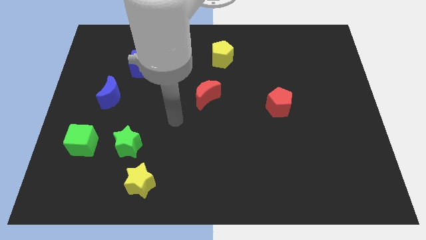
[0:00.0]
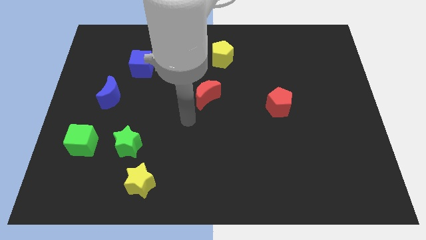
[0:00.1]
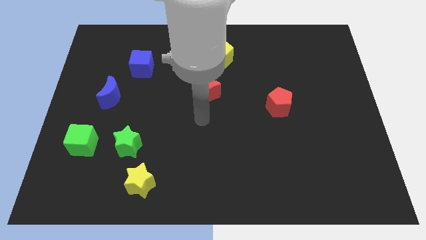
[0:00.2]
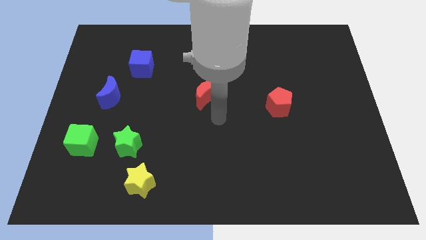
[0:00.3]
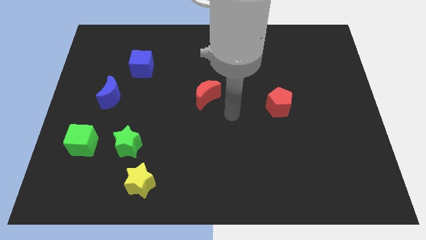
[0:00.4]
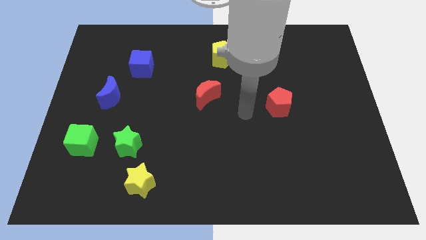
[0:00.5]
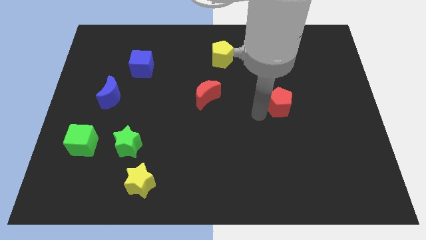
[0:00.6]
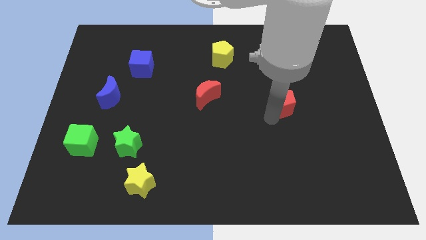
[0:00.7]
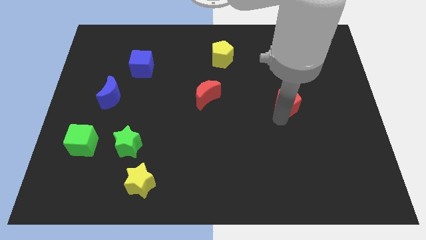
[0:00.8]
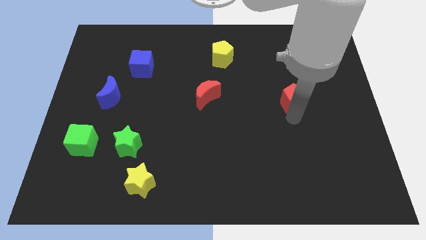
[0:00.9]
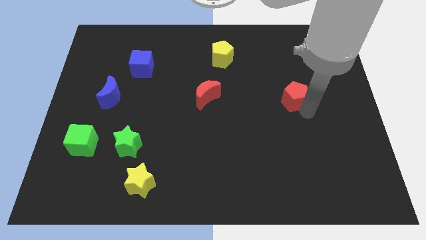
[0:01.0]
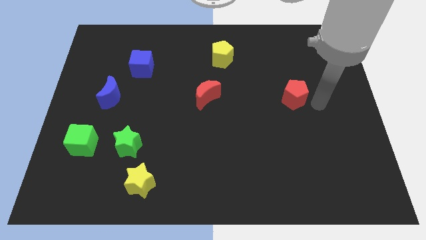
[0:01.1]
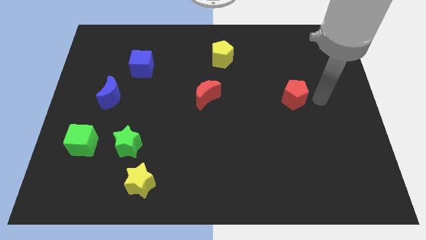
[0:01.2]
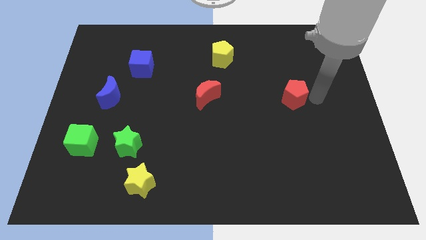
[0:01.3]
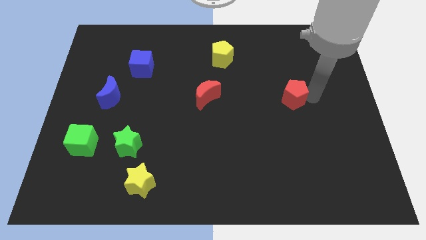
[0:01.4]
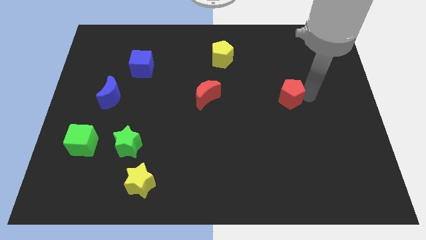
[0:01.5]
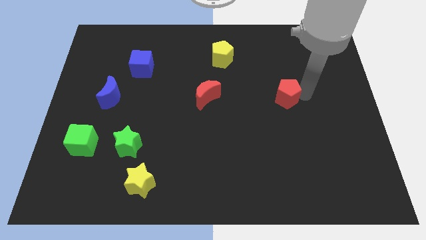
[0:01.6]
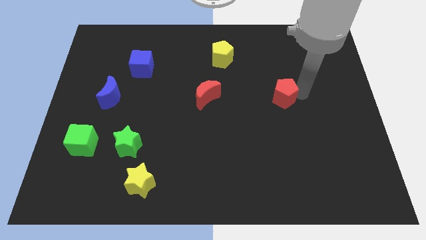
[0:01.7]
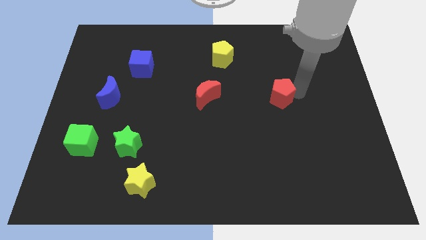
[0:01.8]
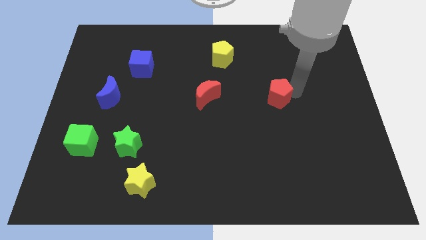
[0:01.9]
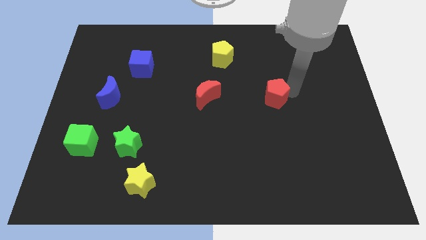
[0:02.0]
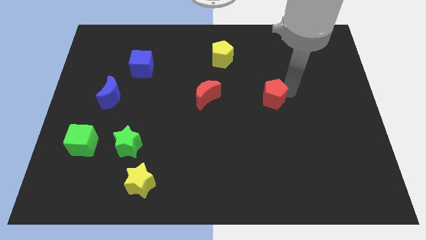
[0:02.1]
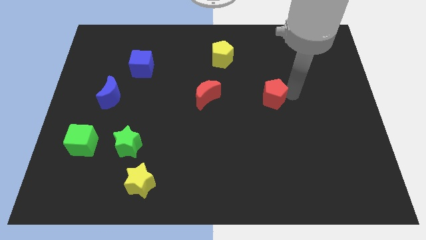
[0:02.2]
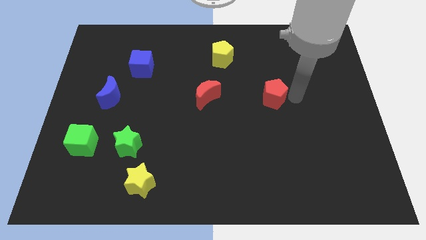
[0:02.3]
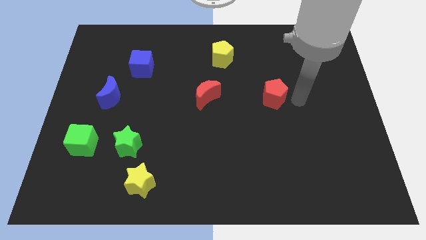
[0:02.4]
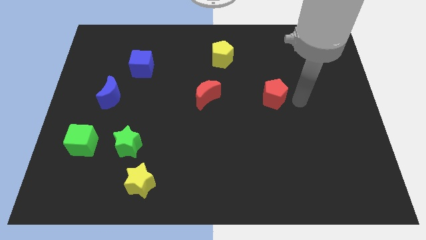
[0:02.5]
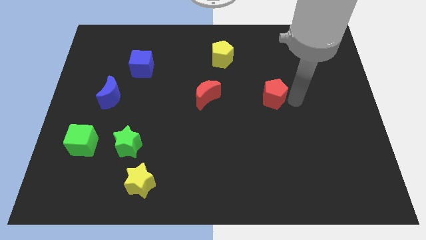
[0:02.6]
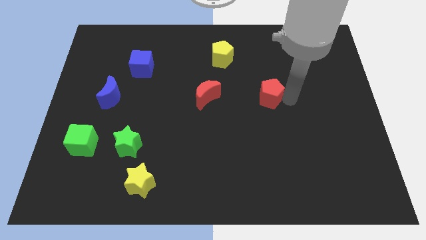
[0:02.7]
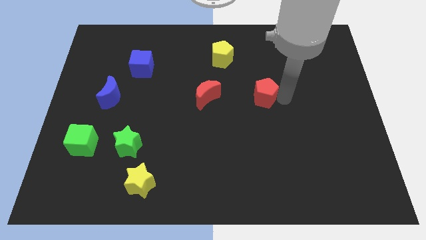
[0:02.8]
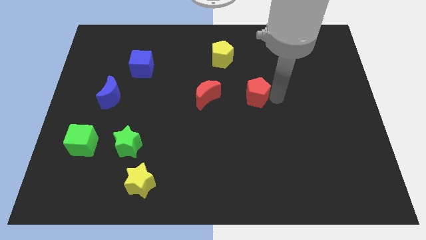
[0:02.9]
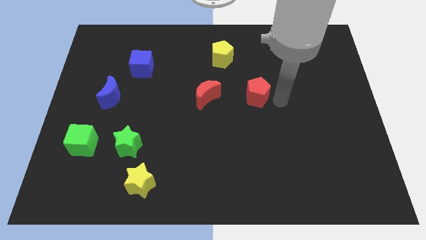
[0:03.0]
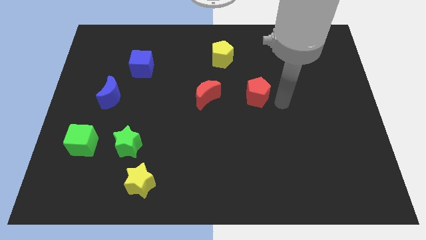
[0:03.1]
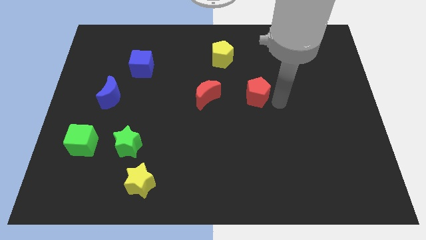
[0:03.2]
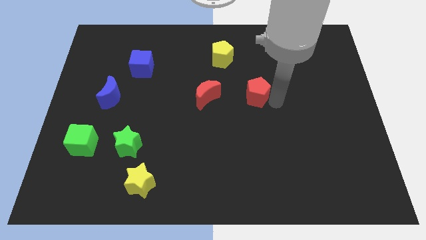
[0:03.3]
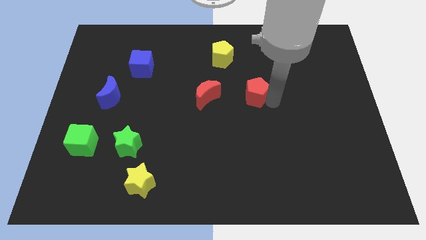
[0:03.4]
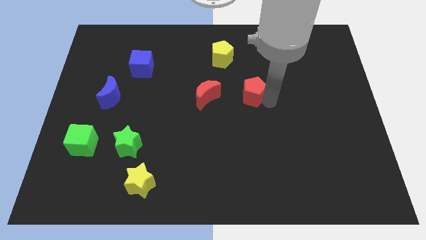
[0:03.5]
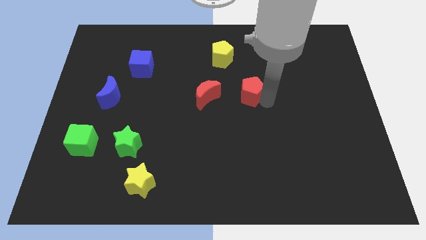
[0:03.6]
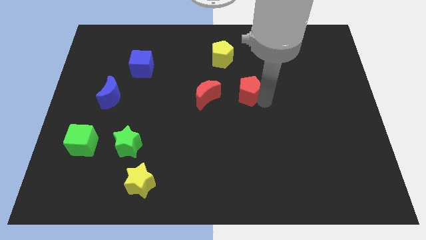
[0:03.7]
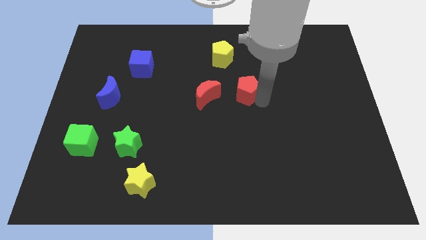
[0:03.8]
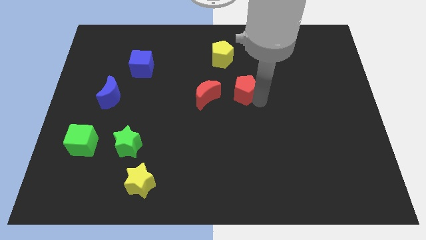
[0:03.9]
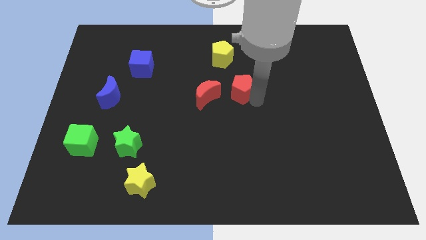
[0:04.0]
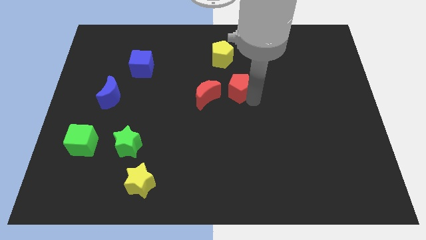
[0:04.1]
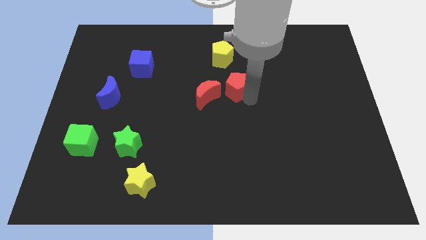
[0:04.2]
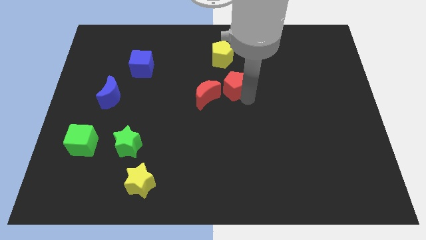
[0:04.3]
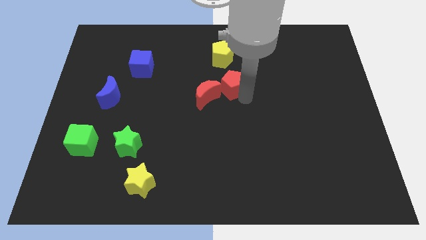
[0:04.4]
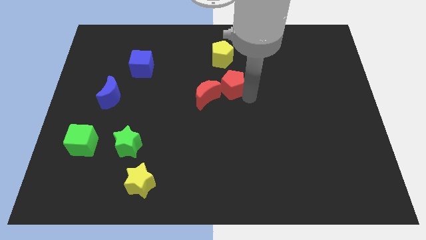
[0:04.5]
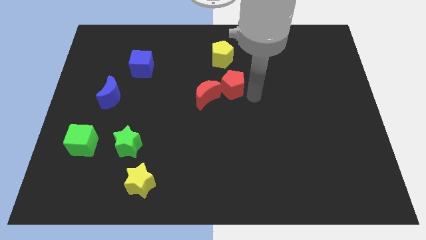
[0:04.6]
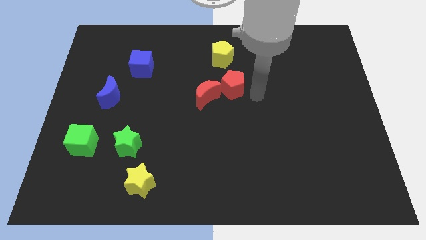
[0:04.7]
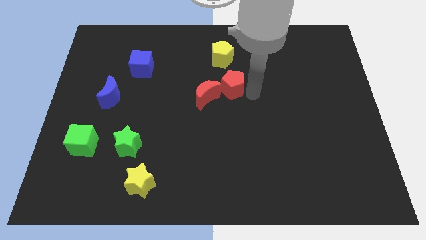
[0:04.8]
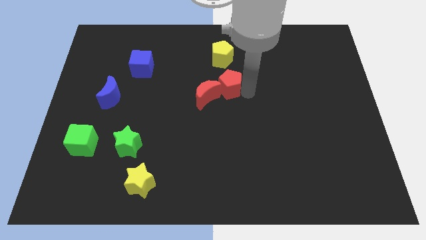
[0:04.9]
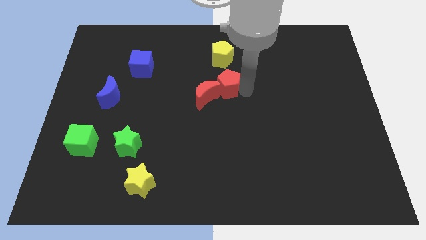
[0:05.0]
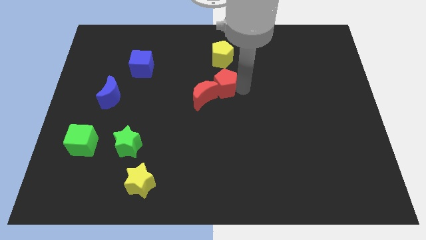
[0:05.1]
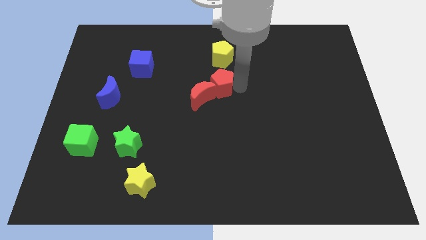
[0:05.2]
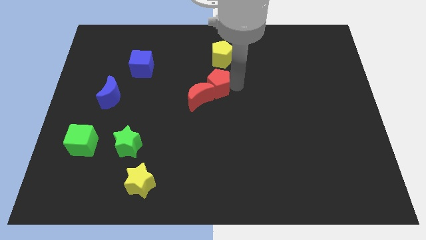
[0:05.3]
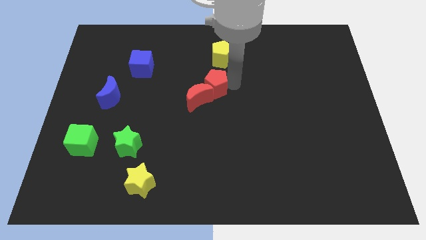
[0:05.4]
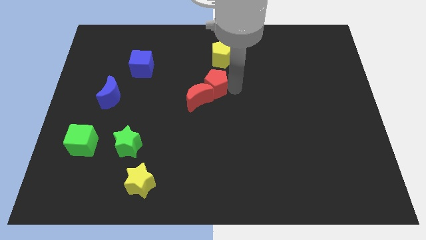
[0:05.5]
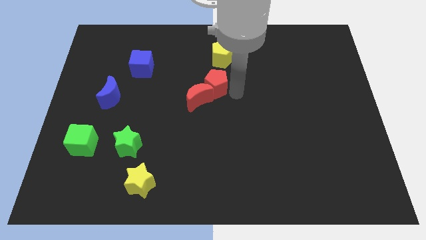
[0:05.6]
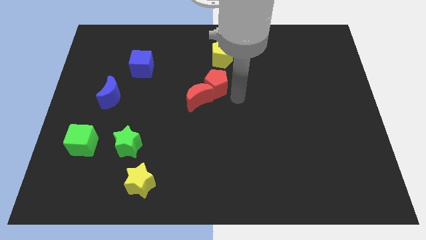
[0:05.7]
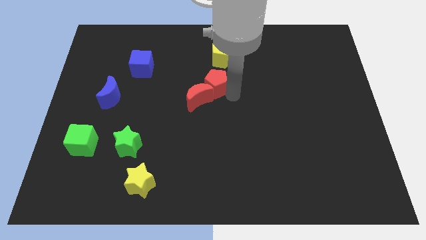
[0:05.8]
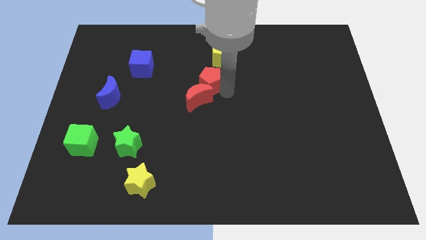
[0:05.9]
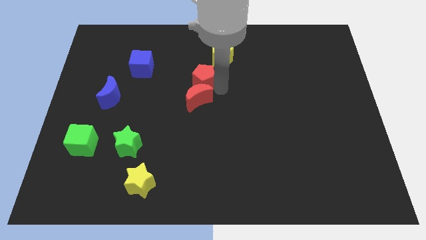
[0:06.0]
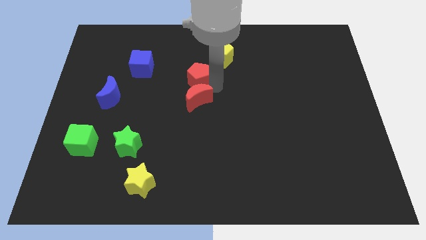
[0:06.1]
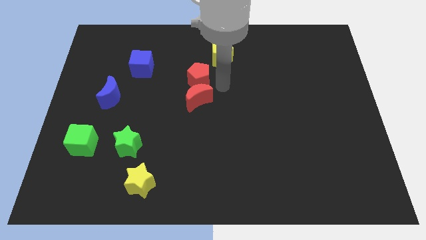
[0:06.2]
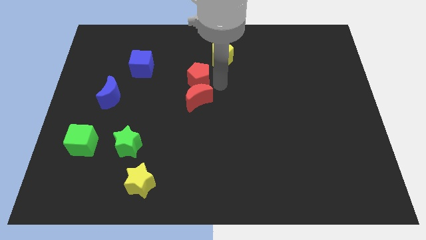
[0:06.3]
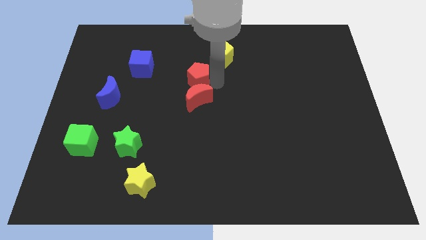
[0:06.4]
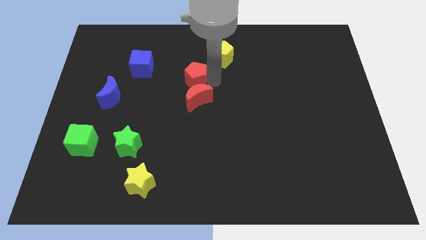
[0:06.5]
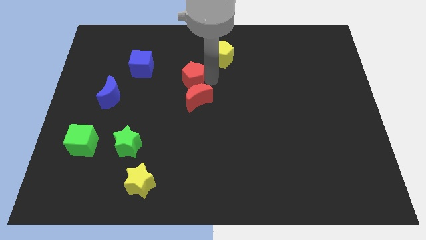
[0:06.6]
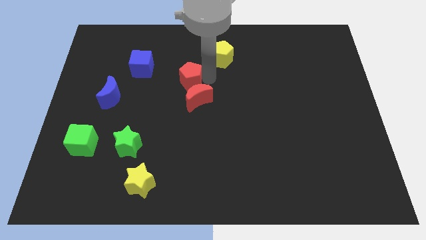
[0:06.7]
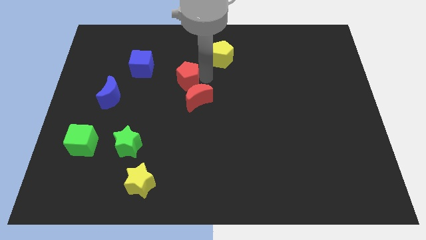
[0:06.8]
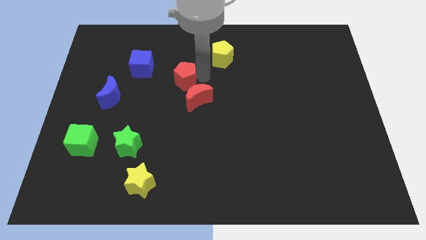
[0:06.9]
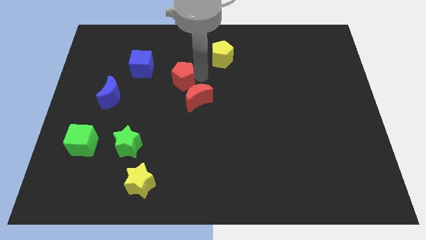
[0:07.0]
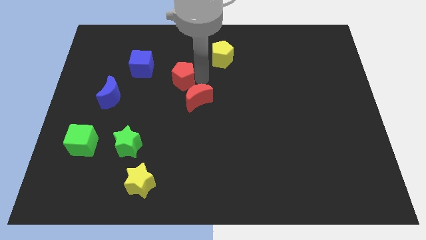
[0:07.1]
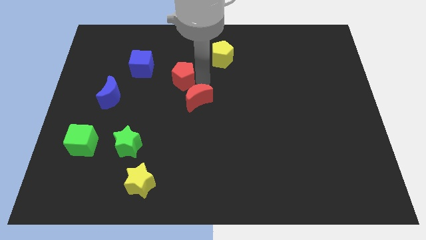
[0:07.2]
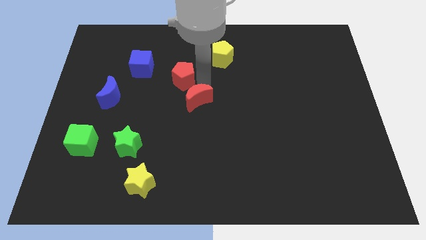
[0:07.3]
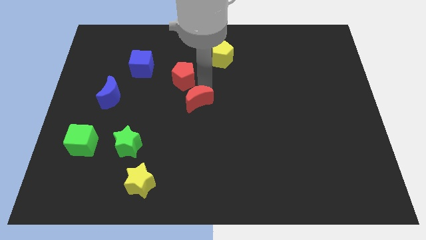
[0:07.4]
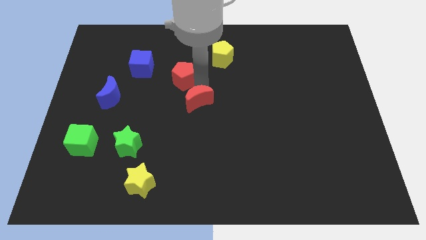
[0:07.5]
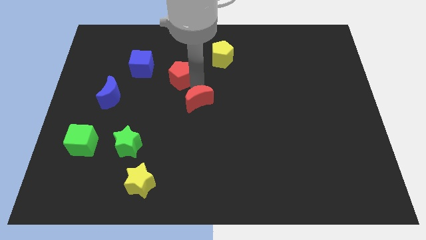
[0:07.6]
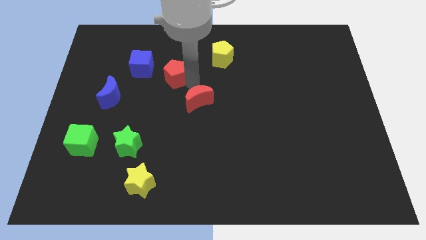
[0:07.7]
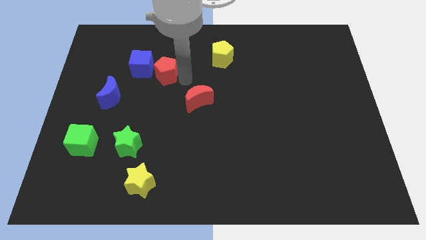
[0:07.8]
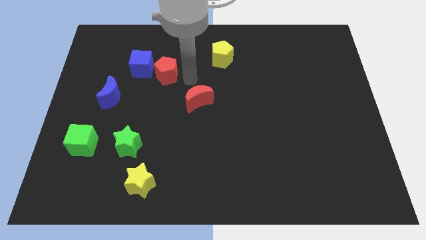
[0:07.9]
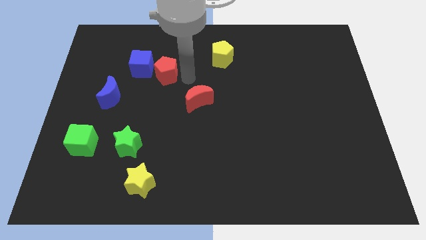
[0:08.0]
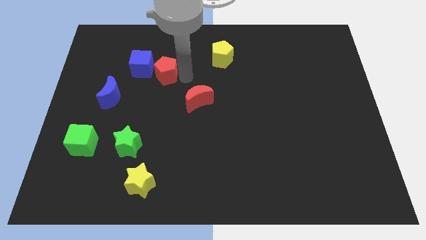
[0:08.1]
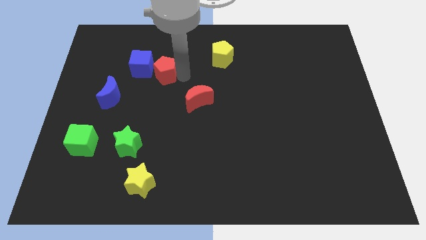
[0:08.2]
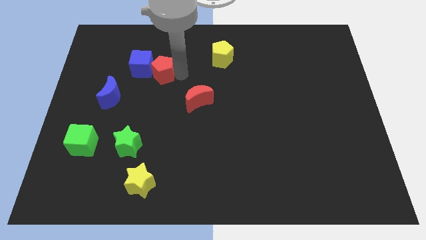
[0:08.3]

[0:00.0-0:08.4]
put the red pentagon next to the blue cube
